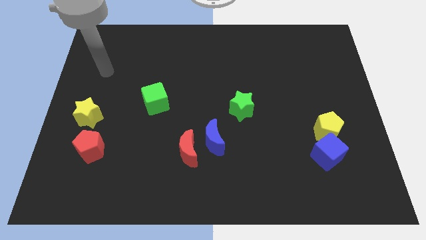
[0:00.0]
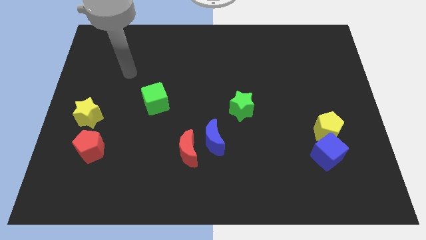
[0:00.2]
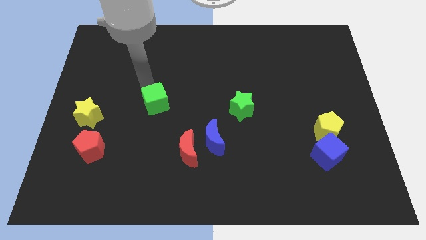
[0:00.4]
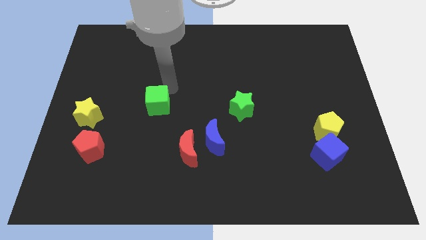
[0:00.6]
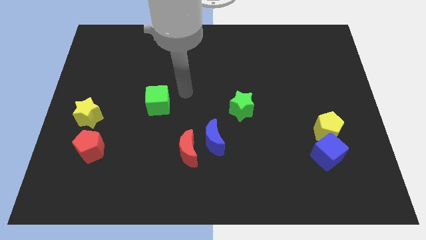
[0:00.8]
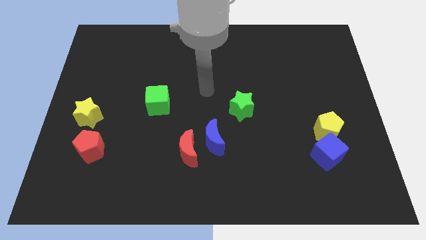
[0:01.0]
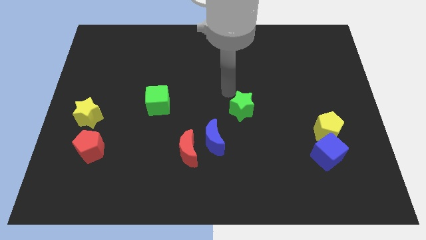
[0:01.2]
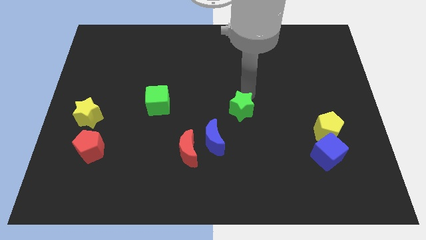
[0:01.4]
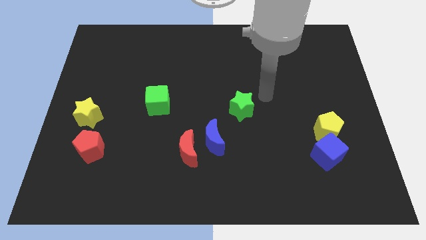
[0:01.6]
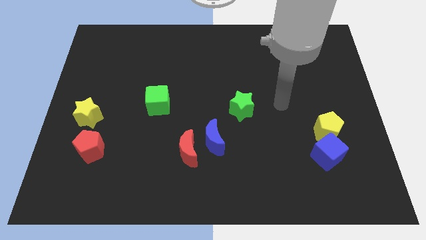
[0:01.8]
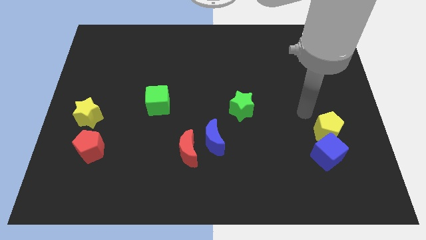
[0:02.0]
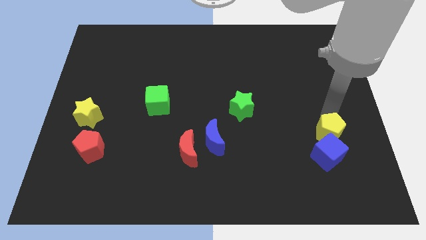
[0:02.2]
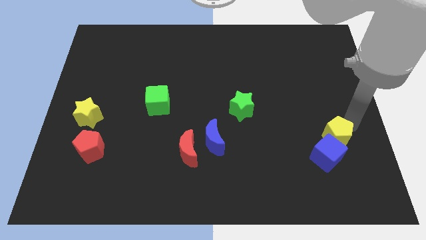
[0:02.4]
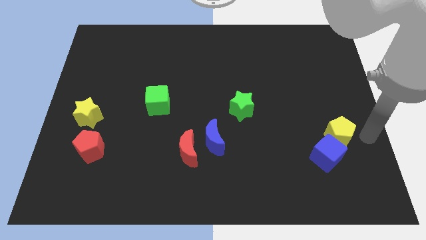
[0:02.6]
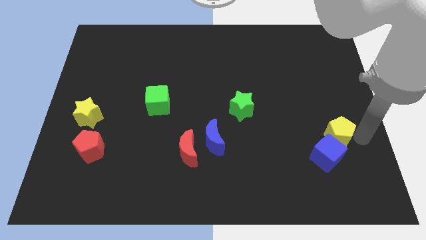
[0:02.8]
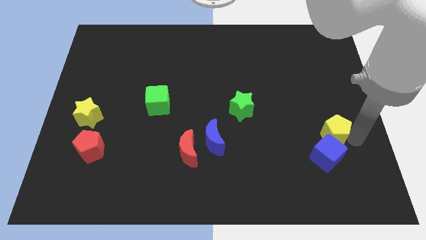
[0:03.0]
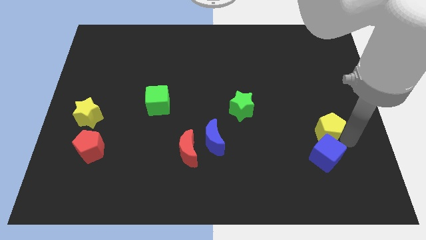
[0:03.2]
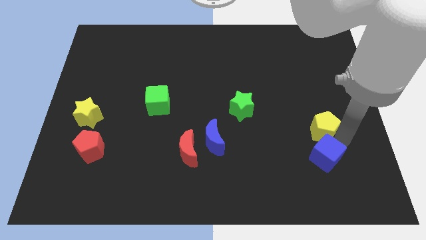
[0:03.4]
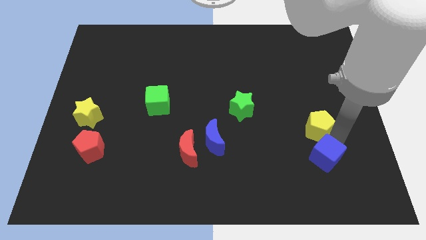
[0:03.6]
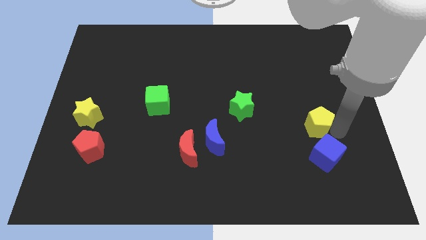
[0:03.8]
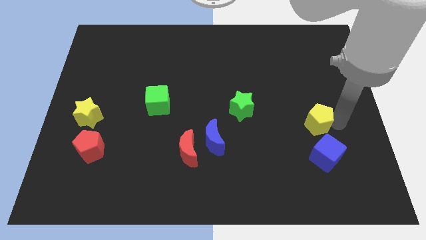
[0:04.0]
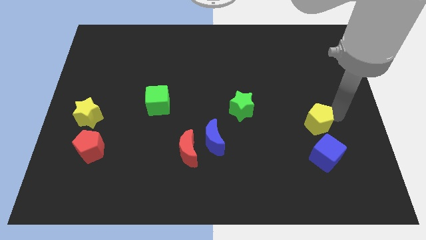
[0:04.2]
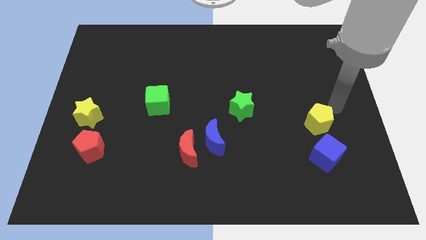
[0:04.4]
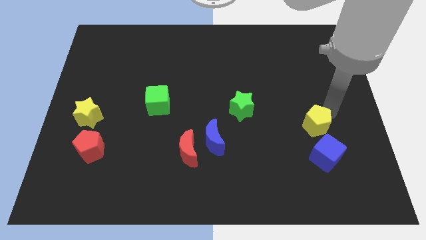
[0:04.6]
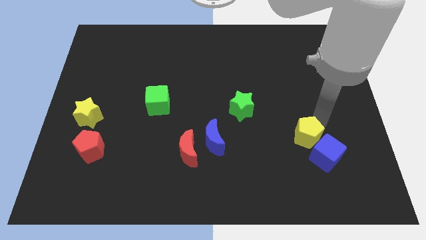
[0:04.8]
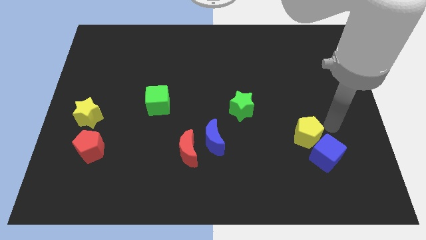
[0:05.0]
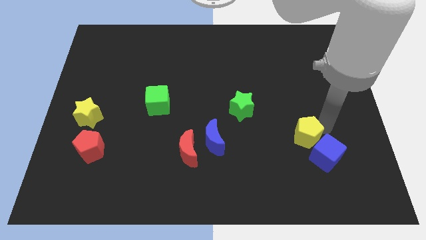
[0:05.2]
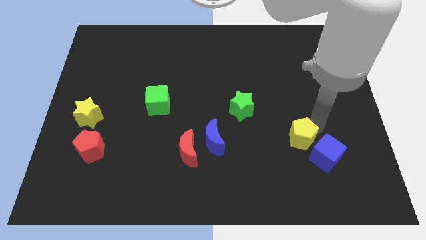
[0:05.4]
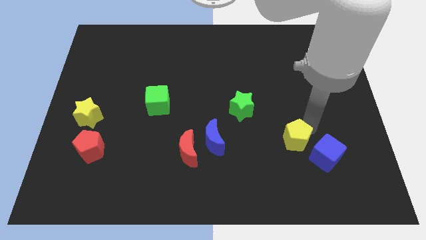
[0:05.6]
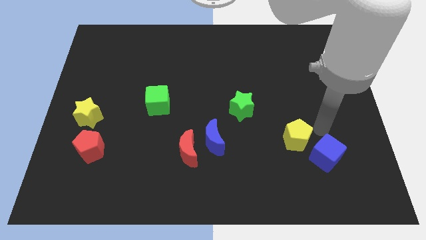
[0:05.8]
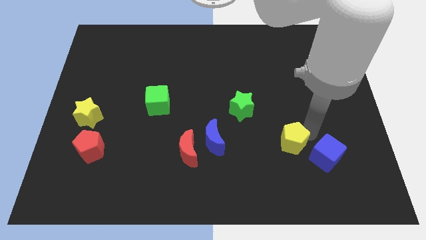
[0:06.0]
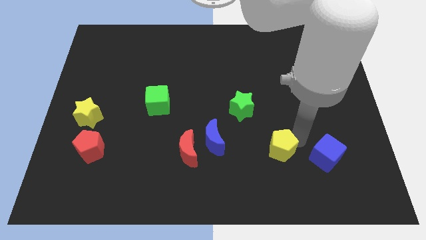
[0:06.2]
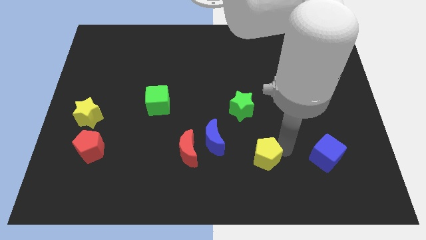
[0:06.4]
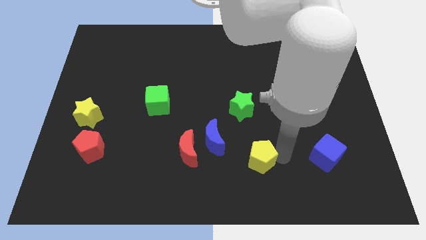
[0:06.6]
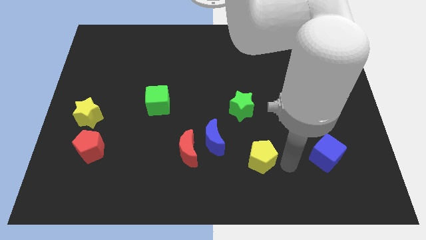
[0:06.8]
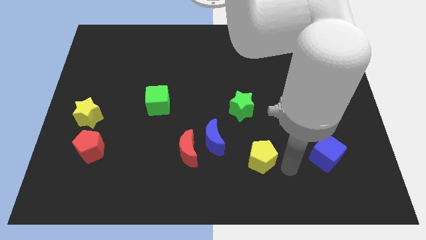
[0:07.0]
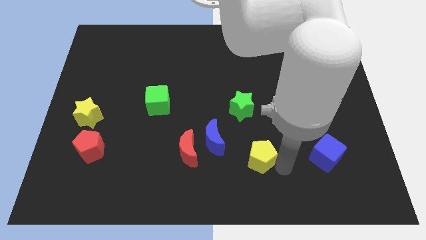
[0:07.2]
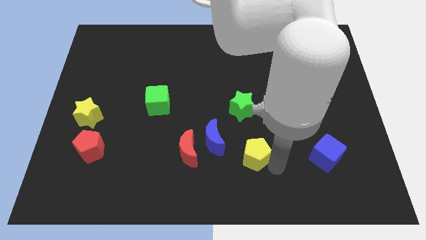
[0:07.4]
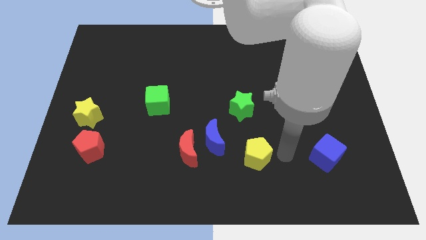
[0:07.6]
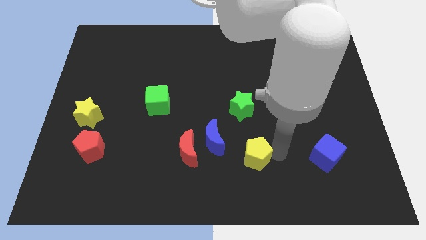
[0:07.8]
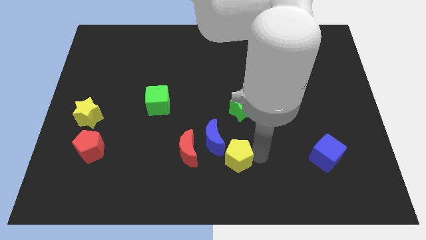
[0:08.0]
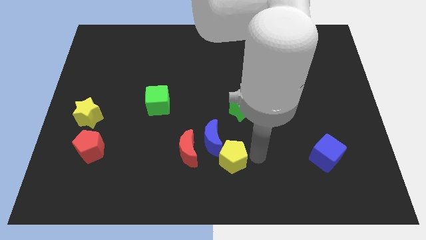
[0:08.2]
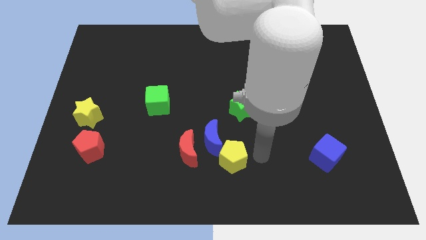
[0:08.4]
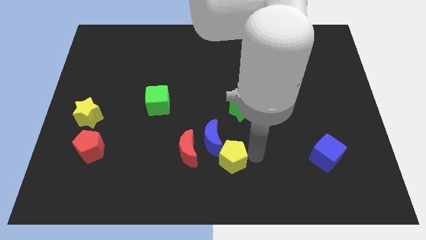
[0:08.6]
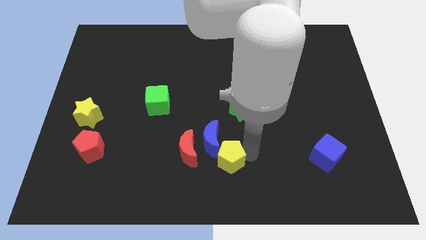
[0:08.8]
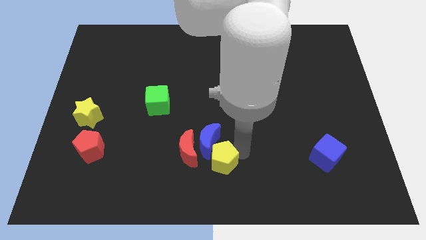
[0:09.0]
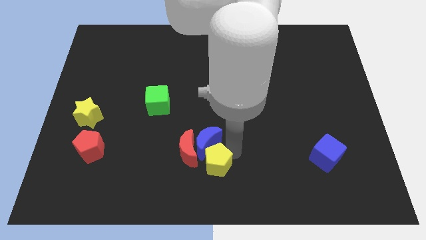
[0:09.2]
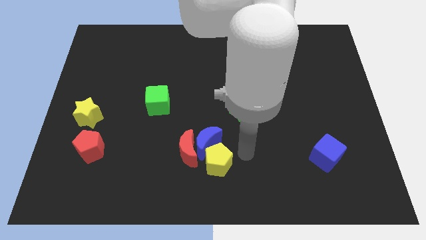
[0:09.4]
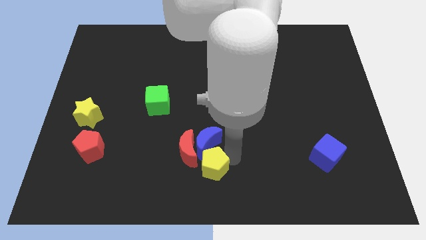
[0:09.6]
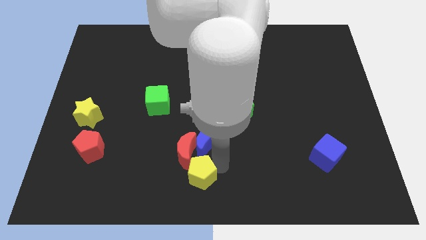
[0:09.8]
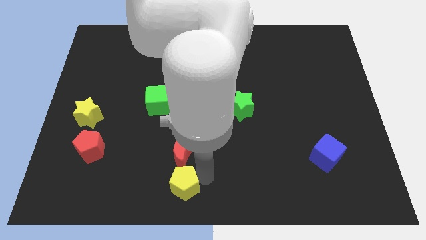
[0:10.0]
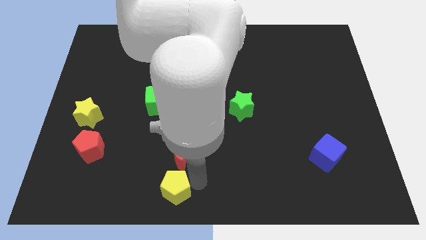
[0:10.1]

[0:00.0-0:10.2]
move the yellow pentagon to the bottom left side of the red moon

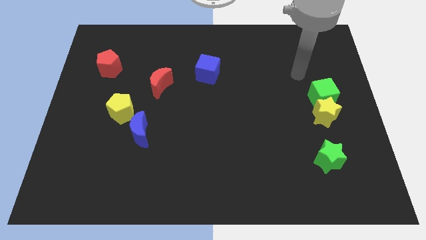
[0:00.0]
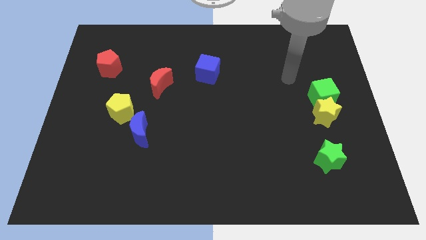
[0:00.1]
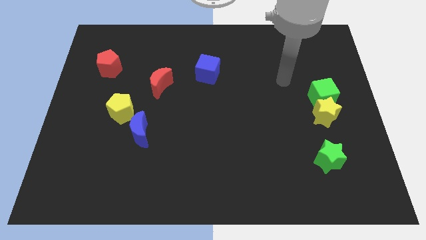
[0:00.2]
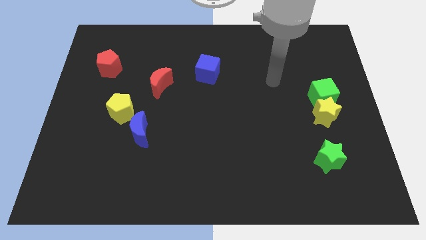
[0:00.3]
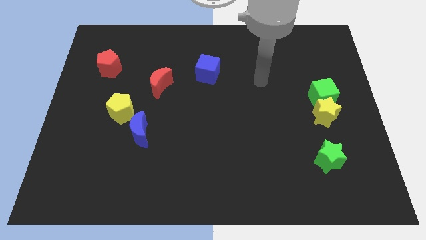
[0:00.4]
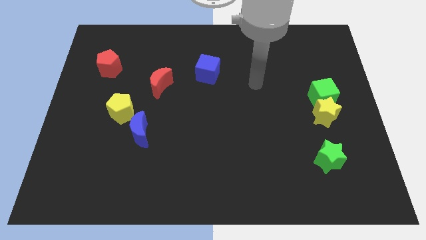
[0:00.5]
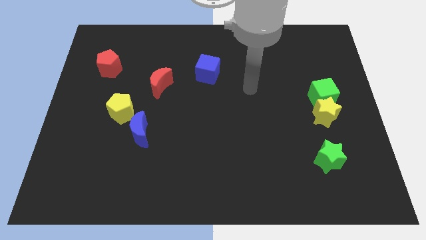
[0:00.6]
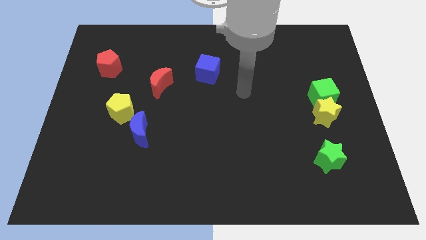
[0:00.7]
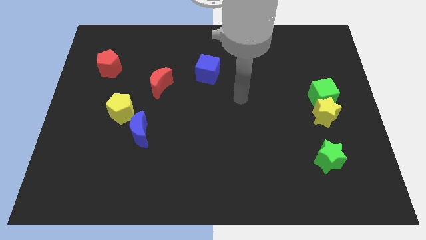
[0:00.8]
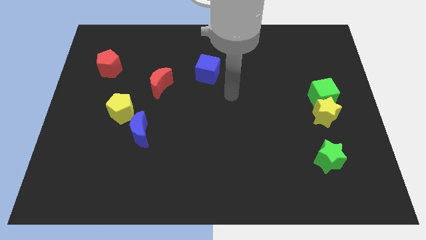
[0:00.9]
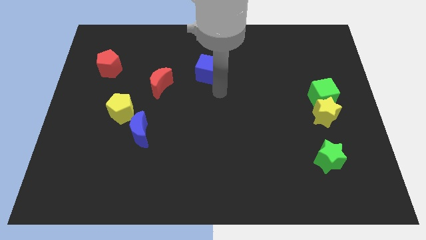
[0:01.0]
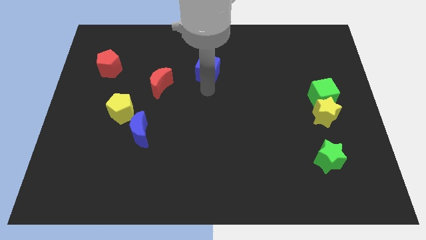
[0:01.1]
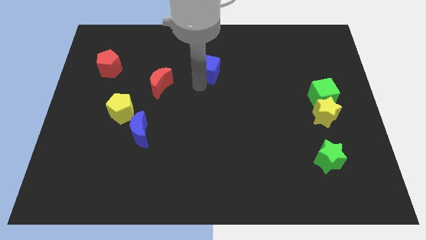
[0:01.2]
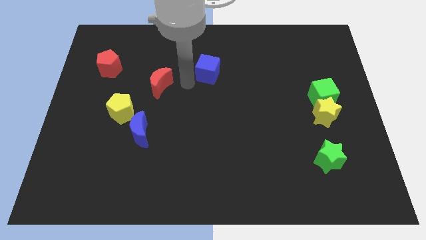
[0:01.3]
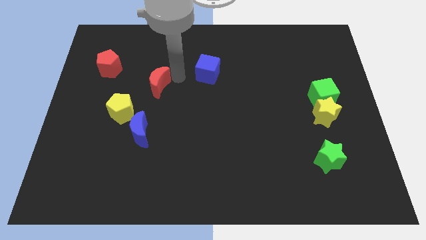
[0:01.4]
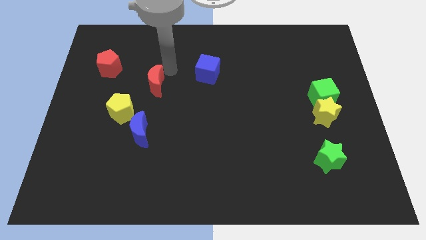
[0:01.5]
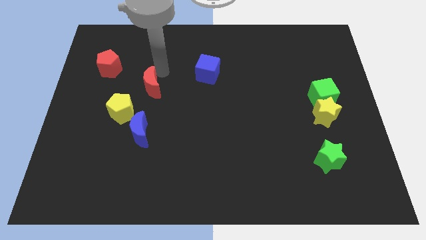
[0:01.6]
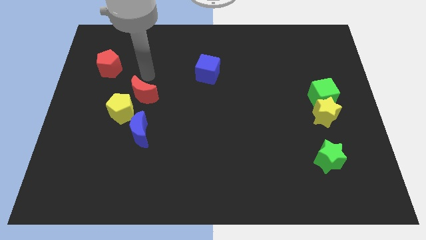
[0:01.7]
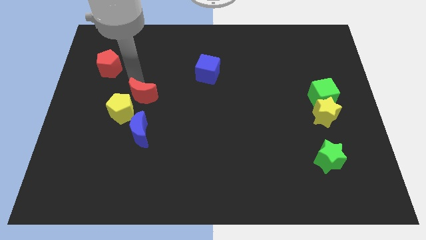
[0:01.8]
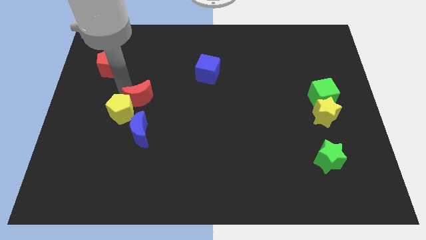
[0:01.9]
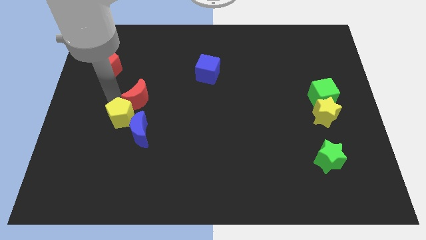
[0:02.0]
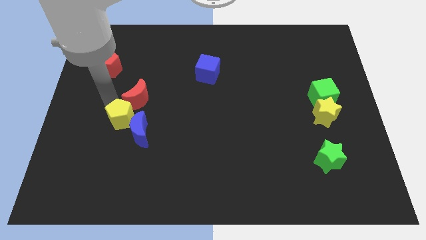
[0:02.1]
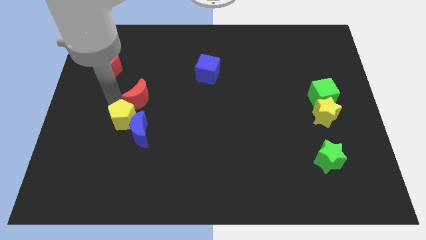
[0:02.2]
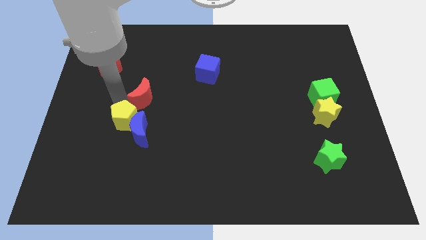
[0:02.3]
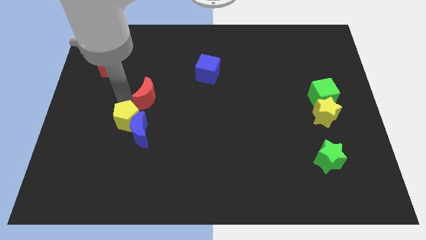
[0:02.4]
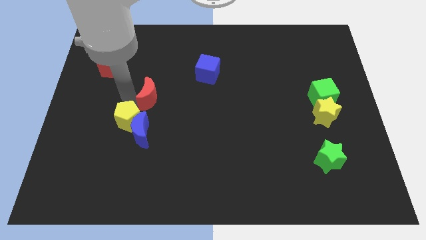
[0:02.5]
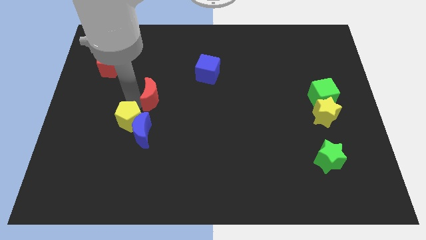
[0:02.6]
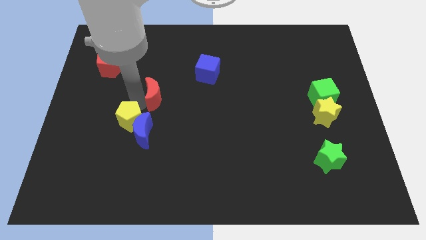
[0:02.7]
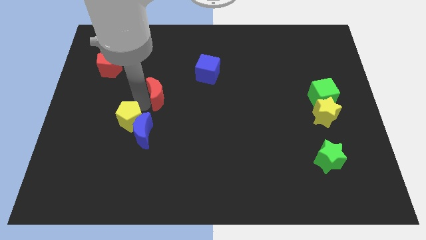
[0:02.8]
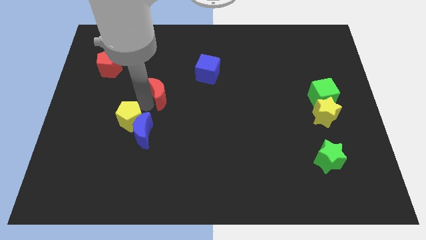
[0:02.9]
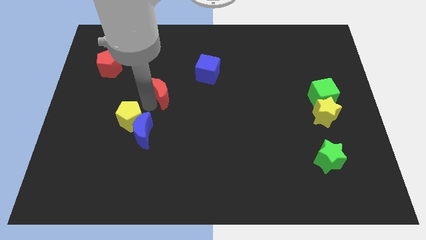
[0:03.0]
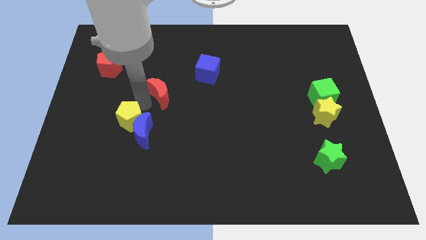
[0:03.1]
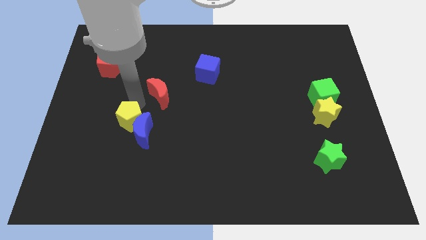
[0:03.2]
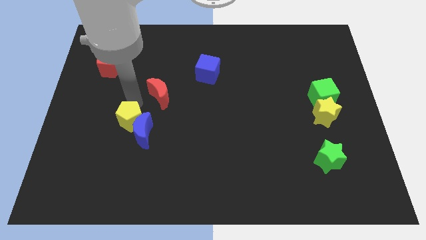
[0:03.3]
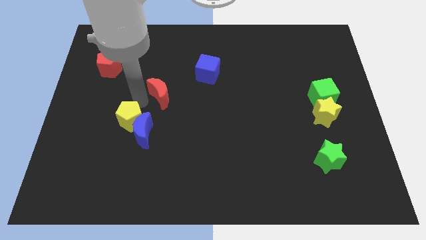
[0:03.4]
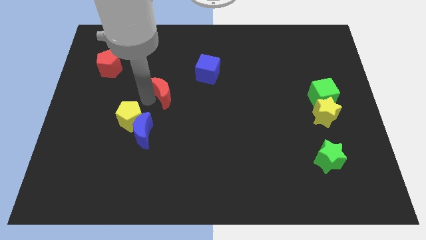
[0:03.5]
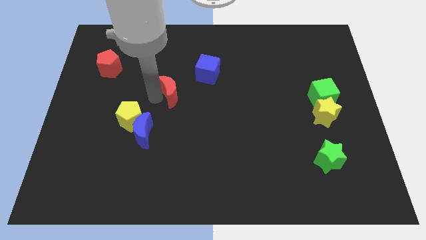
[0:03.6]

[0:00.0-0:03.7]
slide the red moon to the bottom left side of the blue cube
